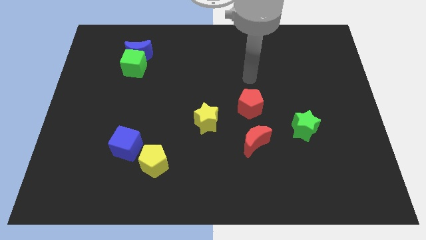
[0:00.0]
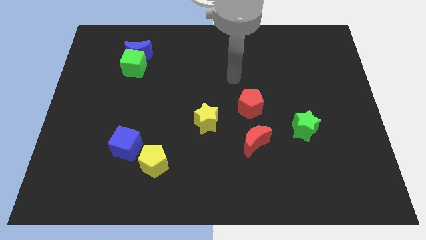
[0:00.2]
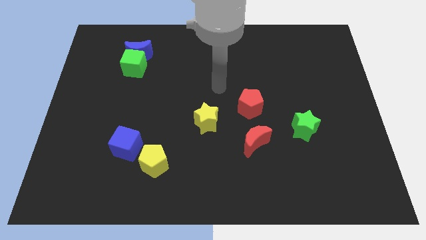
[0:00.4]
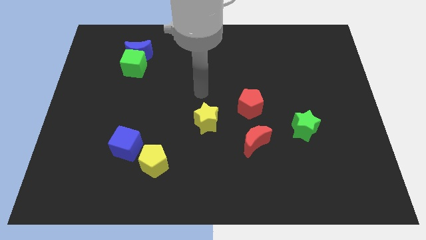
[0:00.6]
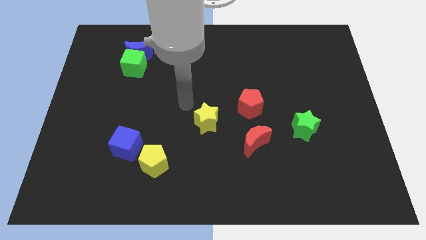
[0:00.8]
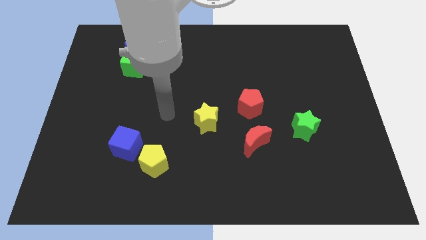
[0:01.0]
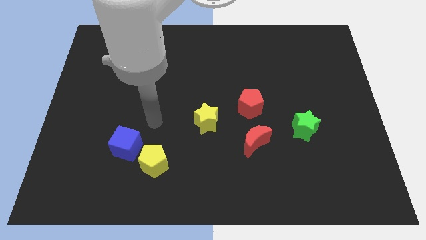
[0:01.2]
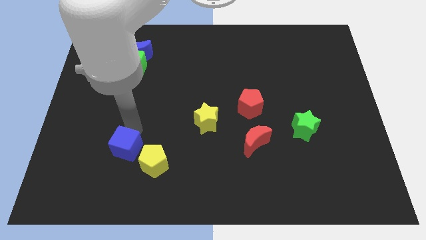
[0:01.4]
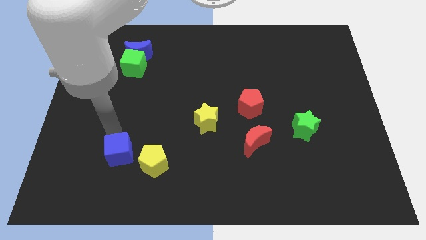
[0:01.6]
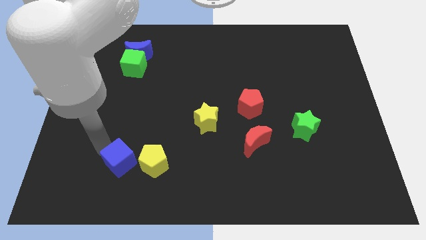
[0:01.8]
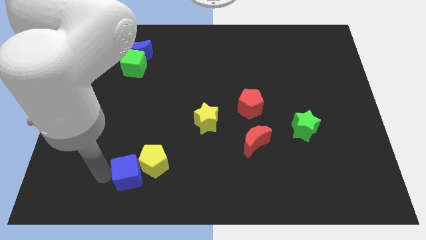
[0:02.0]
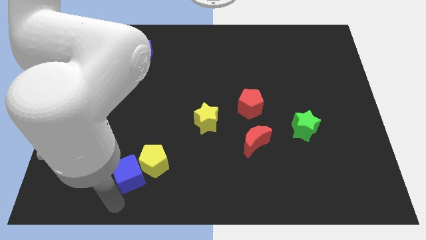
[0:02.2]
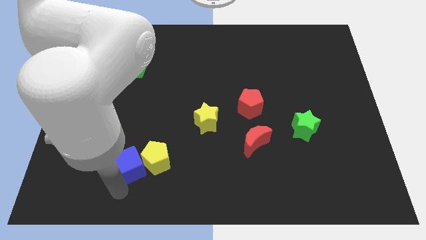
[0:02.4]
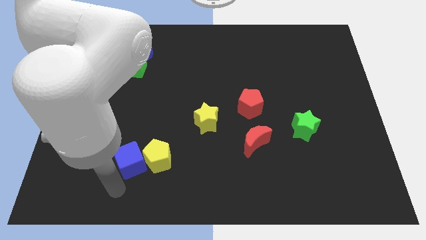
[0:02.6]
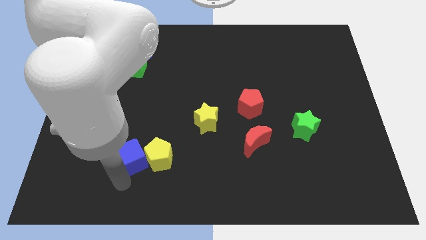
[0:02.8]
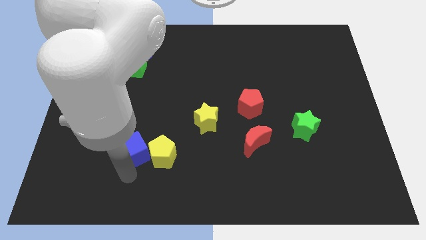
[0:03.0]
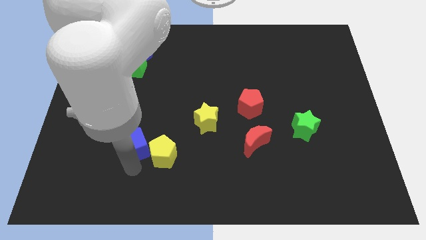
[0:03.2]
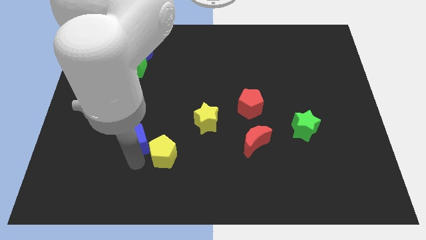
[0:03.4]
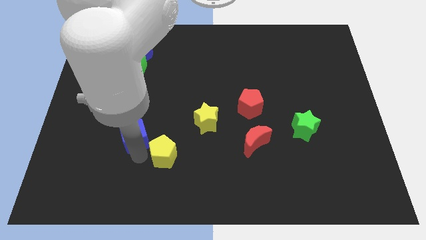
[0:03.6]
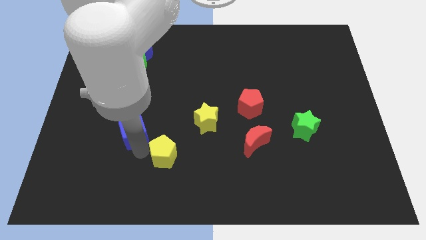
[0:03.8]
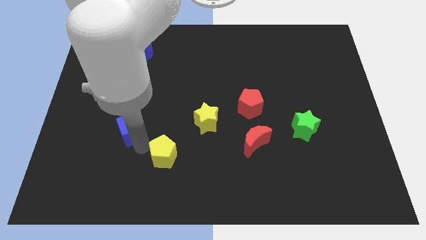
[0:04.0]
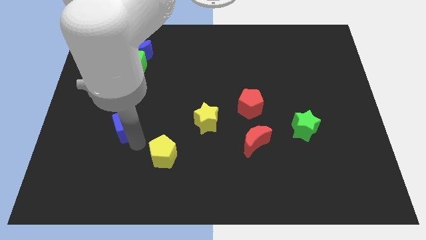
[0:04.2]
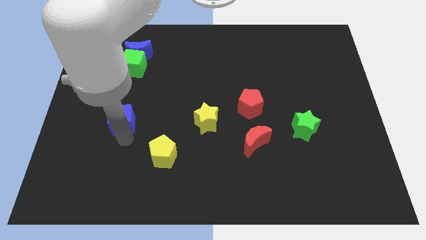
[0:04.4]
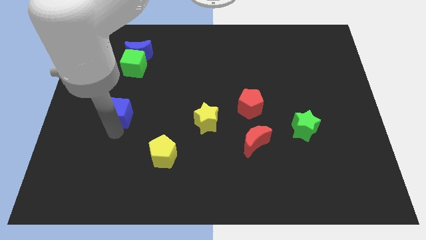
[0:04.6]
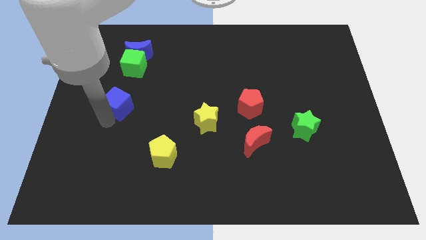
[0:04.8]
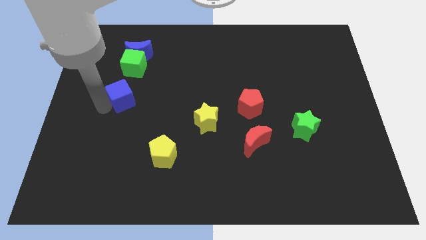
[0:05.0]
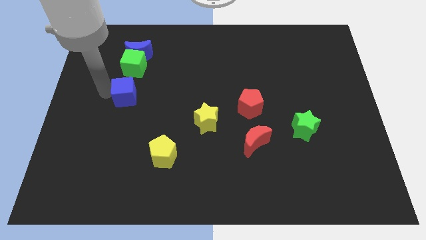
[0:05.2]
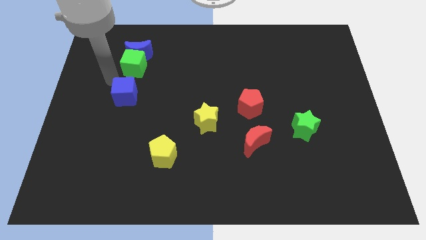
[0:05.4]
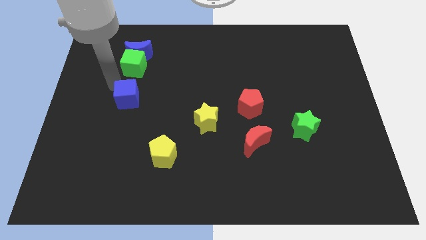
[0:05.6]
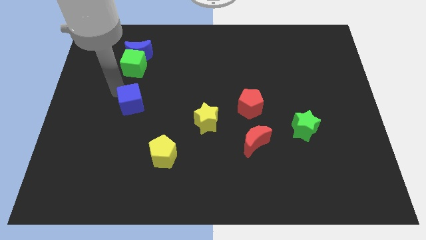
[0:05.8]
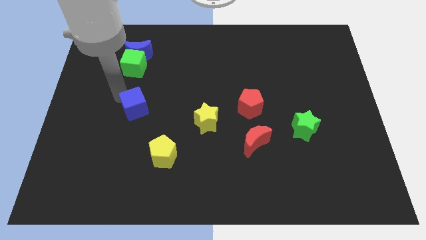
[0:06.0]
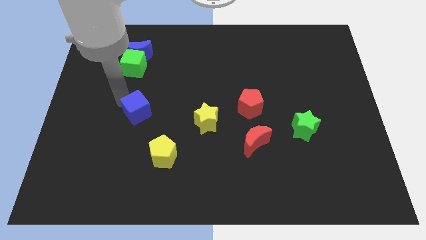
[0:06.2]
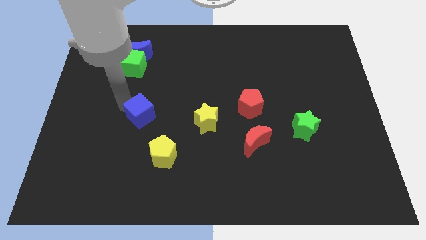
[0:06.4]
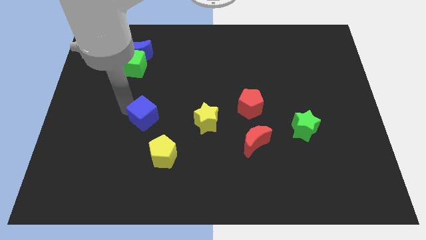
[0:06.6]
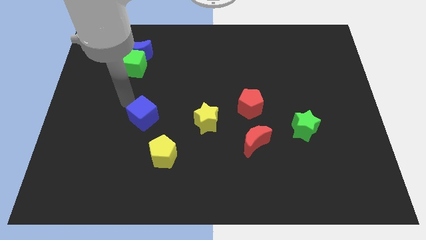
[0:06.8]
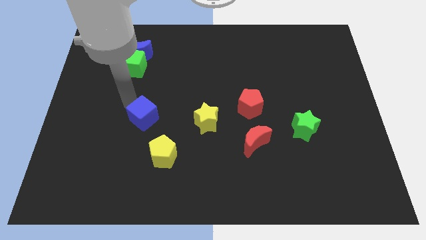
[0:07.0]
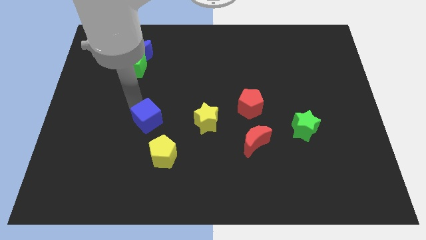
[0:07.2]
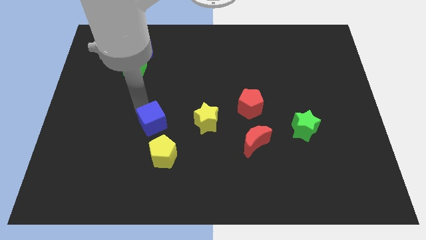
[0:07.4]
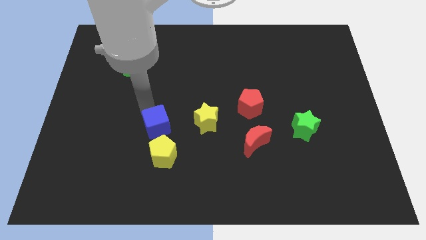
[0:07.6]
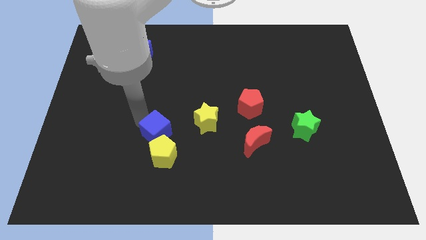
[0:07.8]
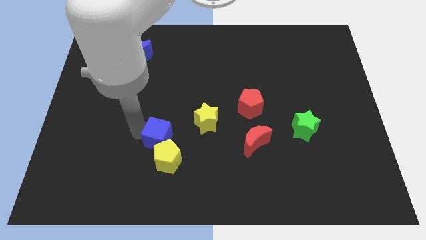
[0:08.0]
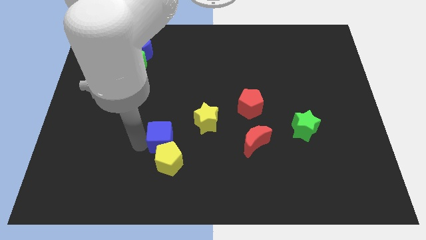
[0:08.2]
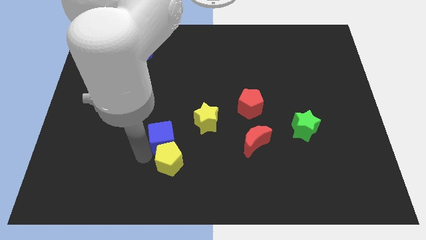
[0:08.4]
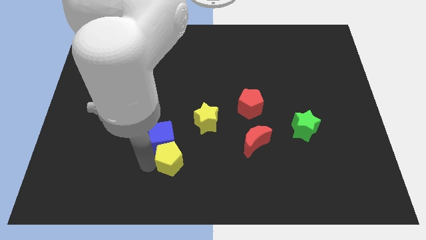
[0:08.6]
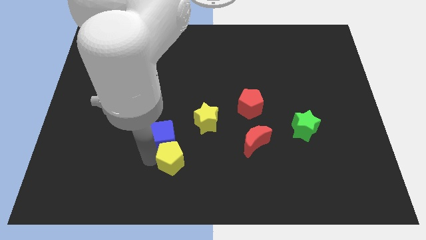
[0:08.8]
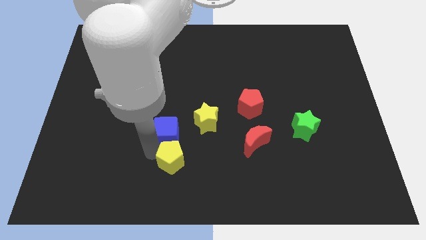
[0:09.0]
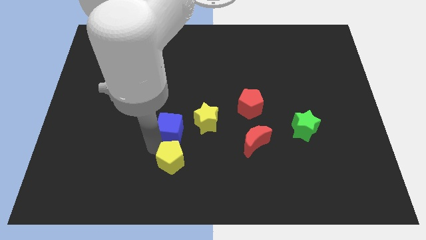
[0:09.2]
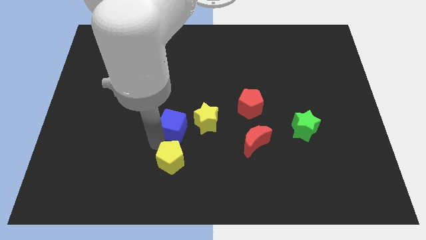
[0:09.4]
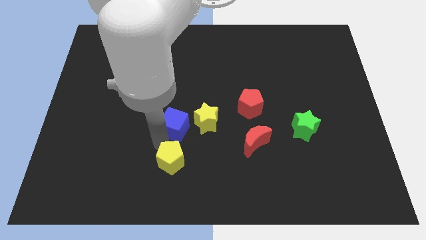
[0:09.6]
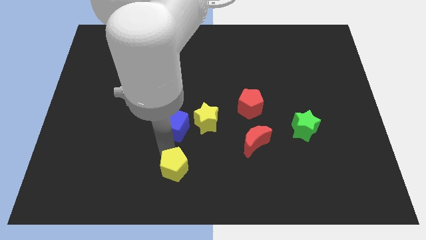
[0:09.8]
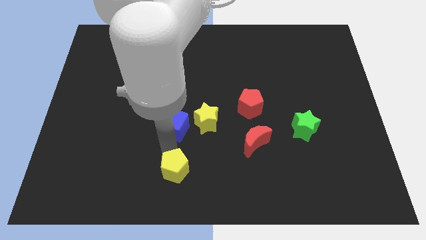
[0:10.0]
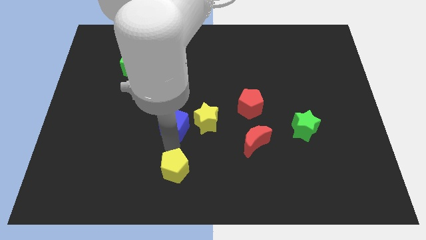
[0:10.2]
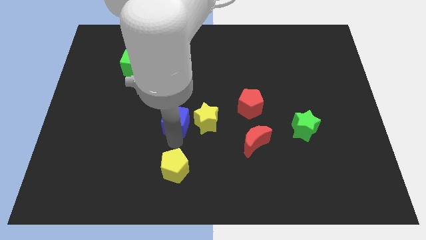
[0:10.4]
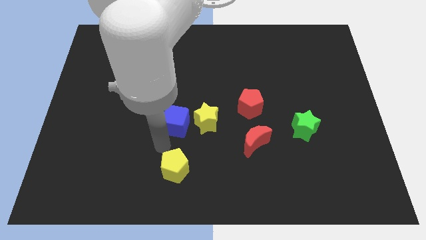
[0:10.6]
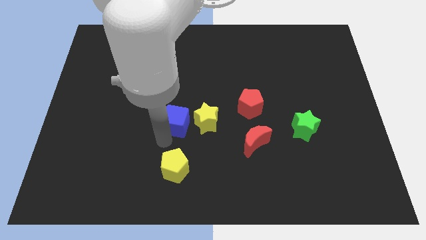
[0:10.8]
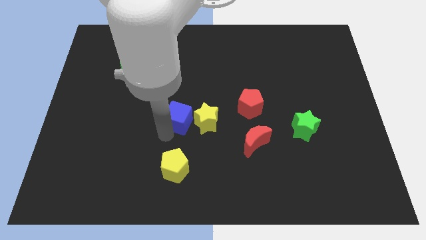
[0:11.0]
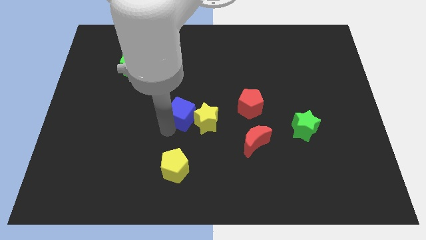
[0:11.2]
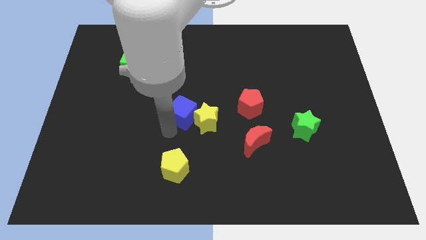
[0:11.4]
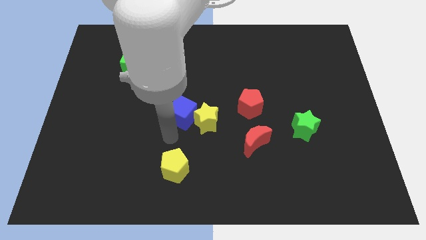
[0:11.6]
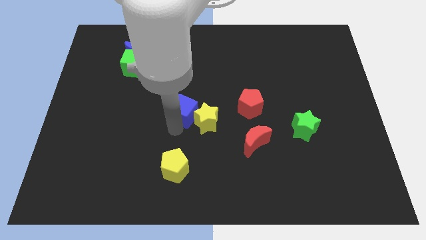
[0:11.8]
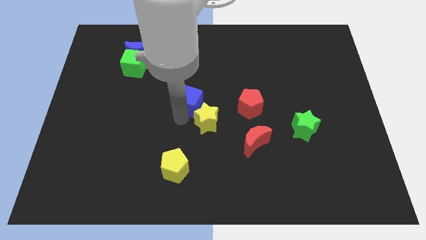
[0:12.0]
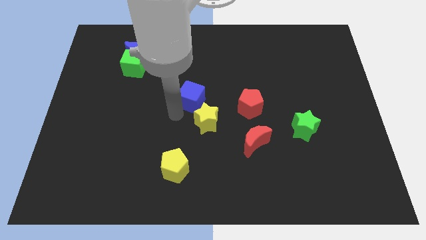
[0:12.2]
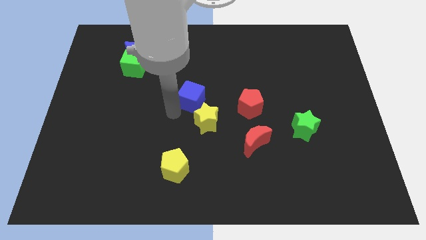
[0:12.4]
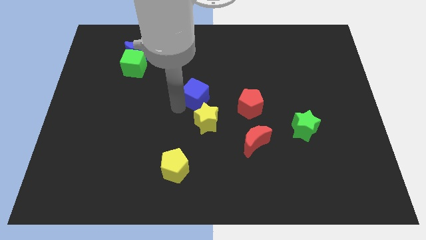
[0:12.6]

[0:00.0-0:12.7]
slide the blue cube diagonally up and to the right

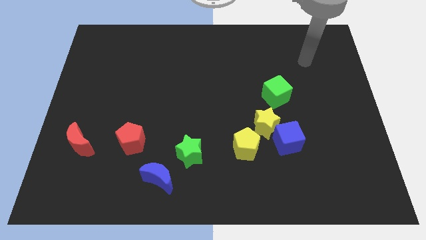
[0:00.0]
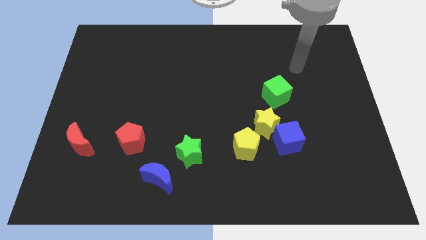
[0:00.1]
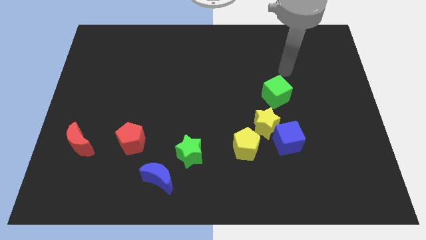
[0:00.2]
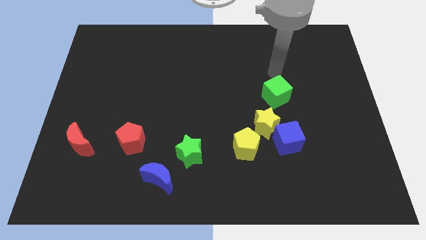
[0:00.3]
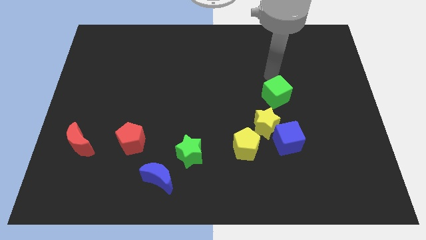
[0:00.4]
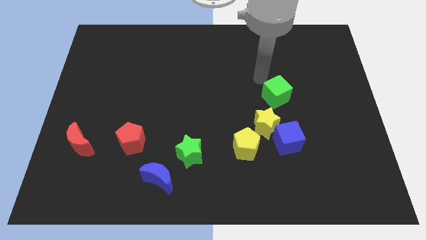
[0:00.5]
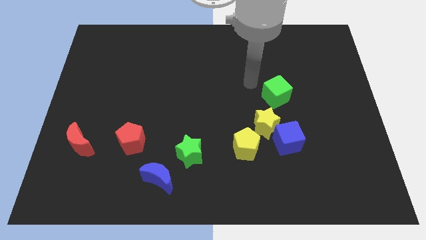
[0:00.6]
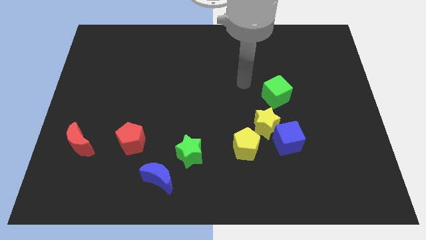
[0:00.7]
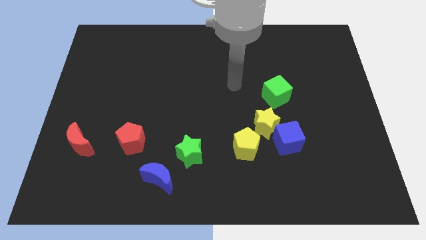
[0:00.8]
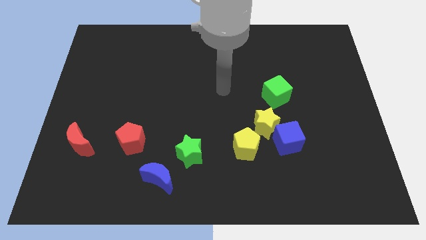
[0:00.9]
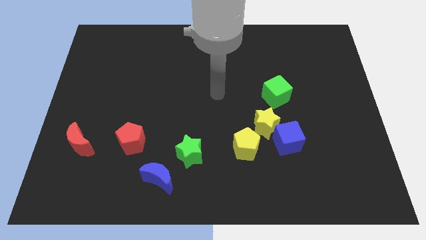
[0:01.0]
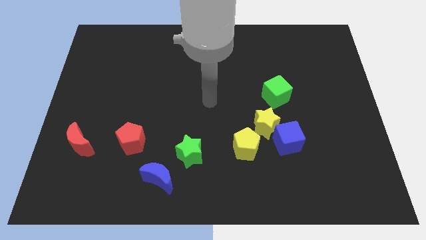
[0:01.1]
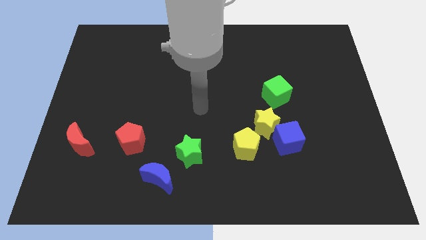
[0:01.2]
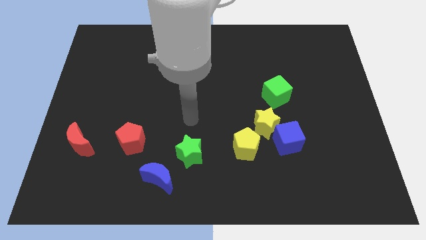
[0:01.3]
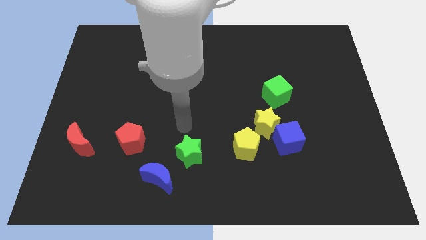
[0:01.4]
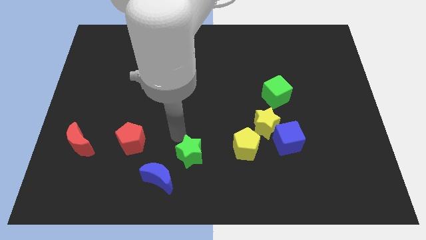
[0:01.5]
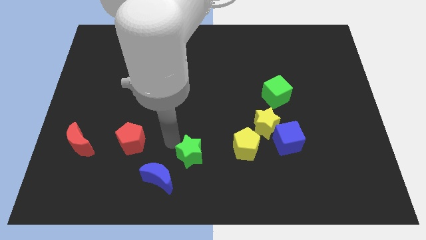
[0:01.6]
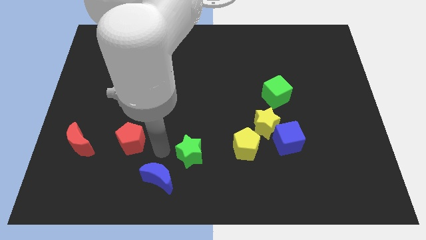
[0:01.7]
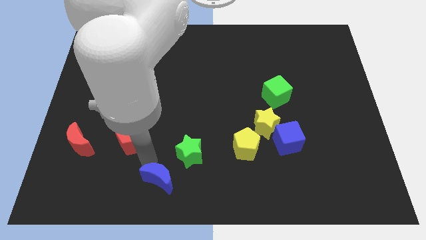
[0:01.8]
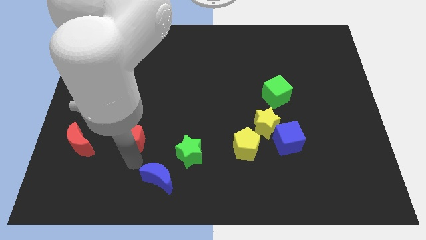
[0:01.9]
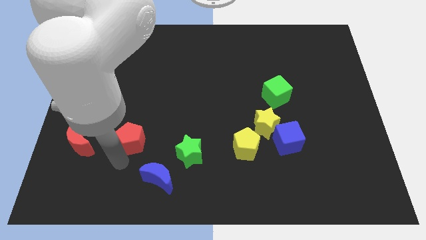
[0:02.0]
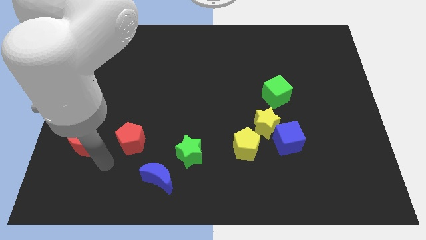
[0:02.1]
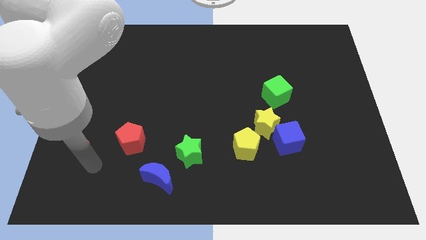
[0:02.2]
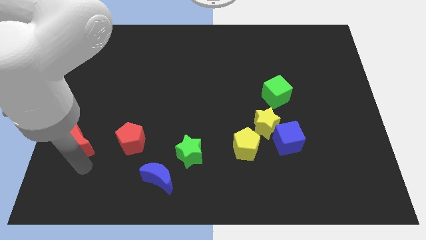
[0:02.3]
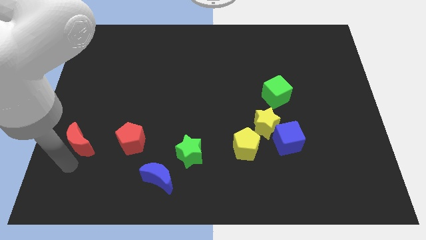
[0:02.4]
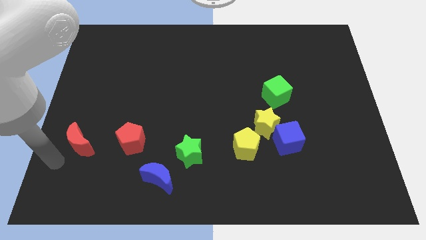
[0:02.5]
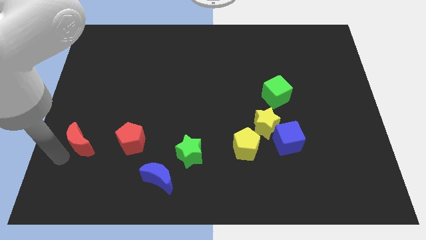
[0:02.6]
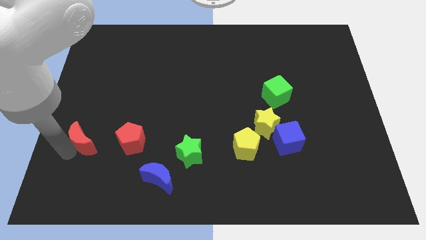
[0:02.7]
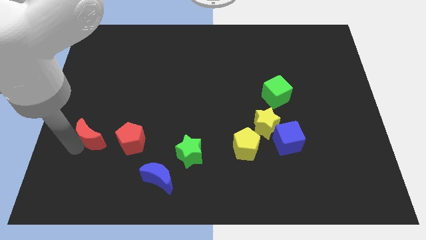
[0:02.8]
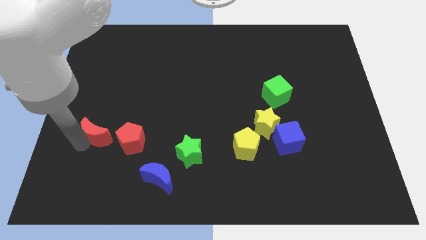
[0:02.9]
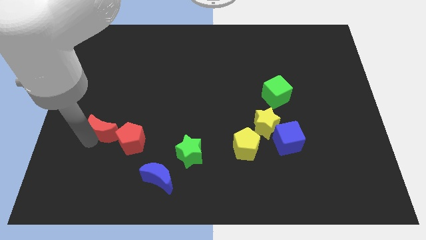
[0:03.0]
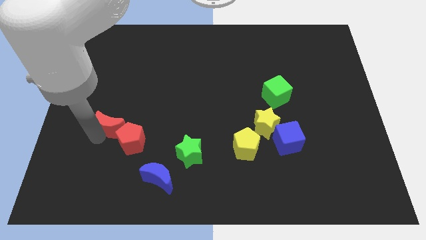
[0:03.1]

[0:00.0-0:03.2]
move the red moon upwards and then to the right a bit
